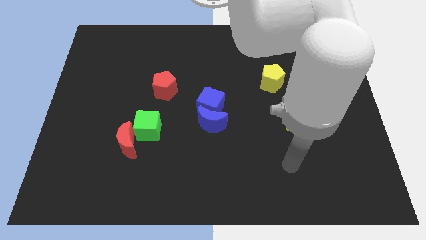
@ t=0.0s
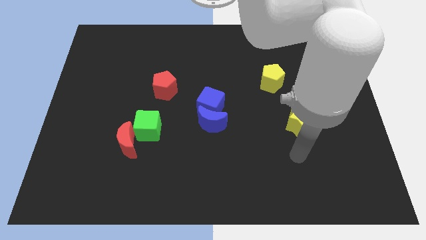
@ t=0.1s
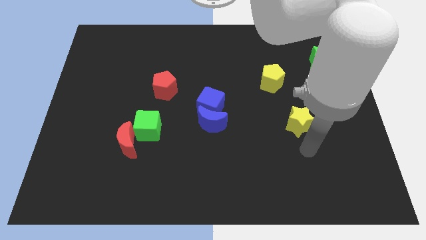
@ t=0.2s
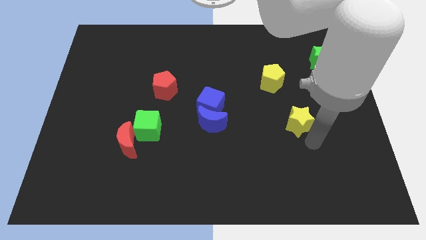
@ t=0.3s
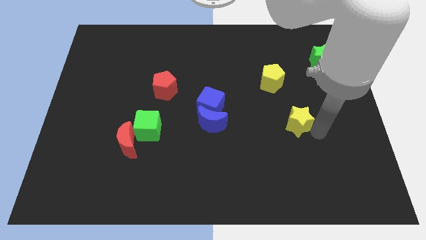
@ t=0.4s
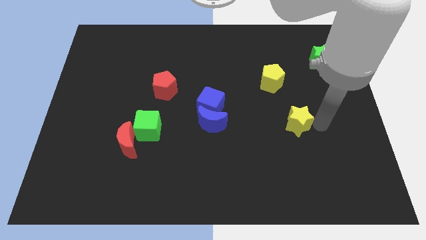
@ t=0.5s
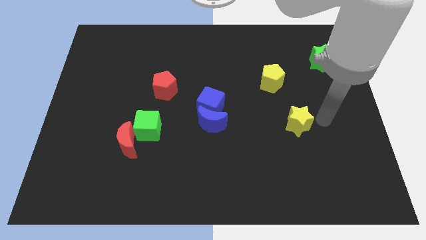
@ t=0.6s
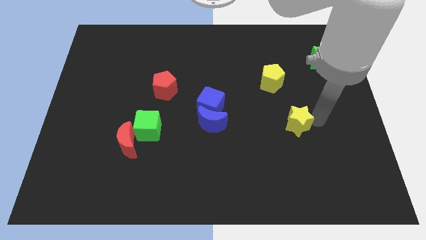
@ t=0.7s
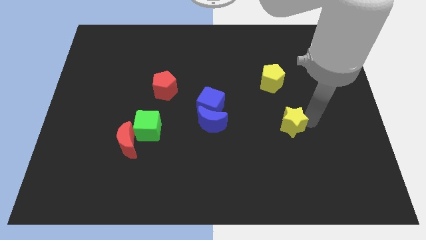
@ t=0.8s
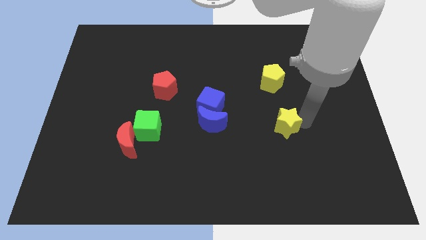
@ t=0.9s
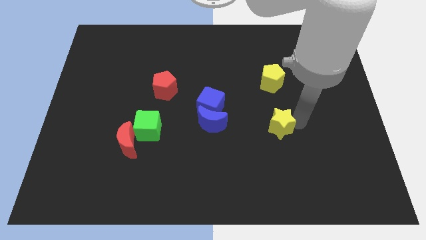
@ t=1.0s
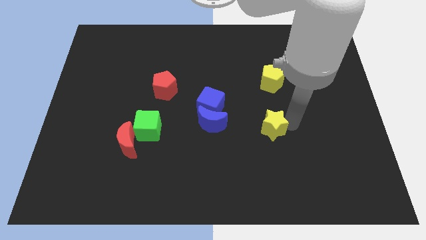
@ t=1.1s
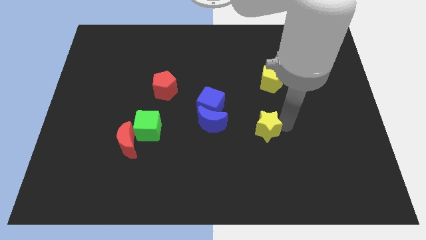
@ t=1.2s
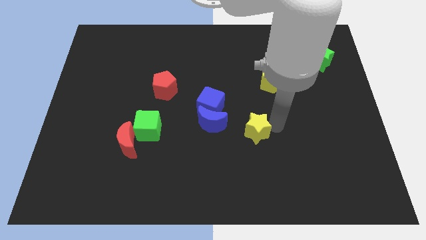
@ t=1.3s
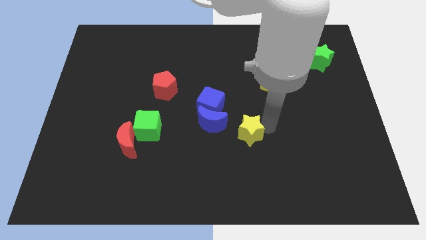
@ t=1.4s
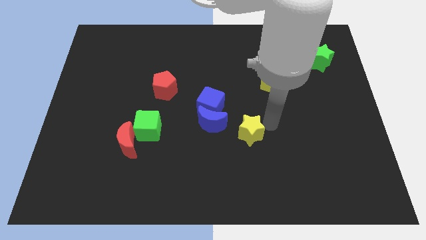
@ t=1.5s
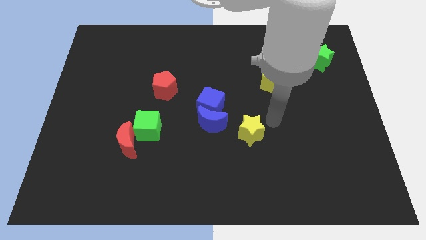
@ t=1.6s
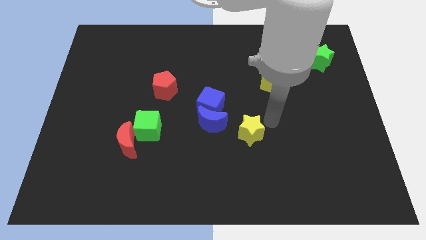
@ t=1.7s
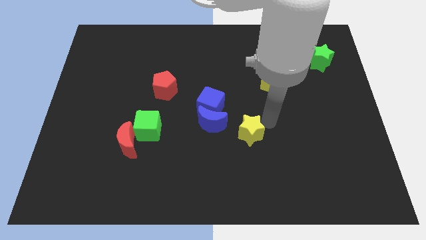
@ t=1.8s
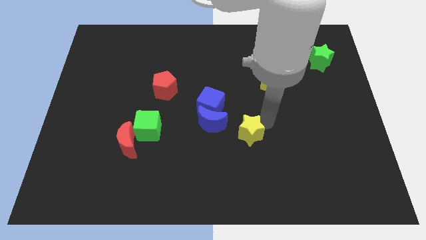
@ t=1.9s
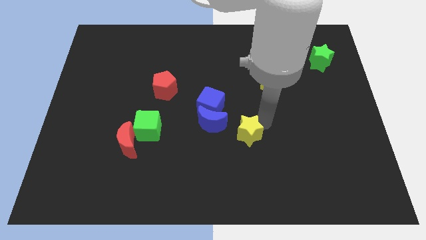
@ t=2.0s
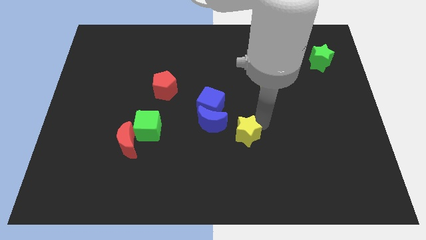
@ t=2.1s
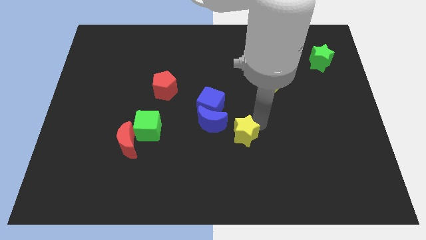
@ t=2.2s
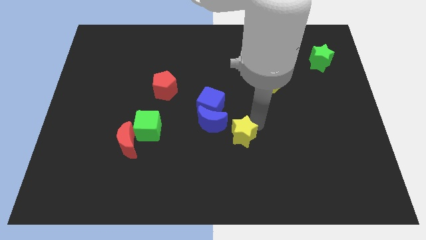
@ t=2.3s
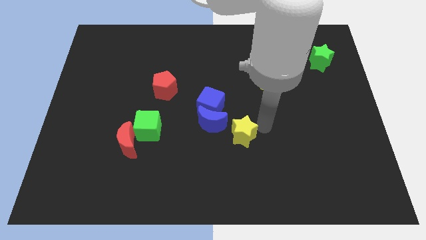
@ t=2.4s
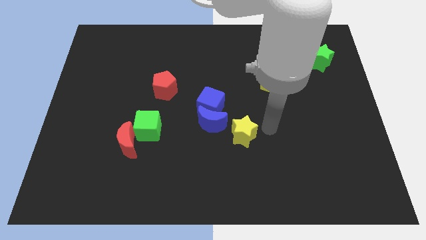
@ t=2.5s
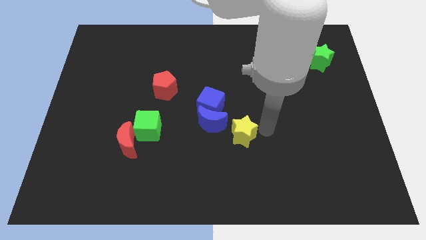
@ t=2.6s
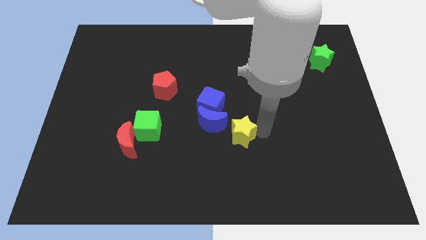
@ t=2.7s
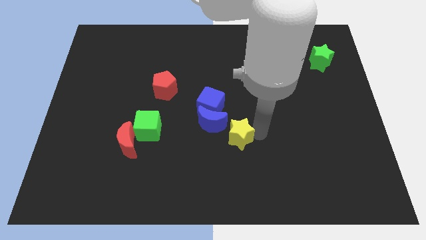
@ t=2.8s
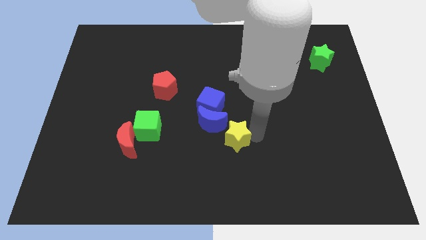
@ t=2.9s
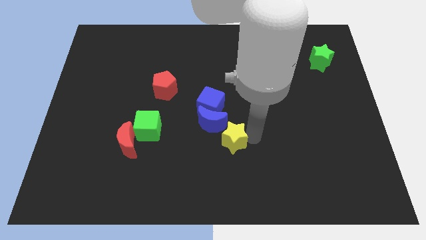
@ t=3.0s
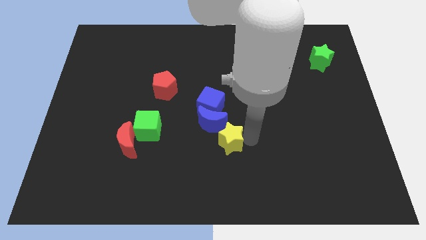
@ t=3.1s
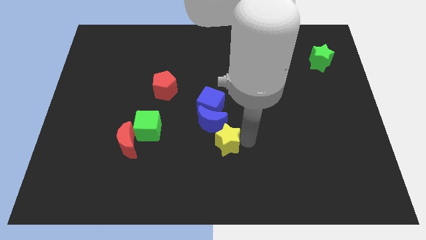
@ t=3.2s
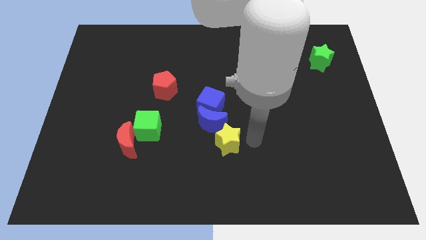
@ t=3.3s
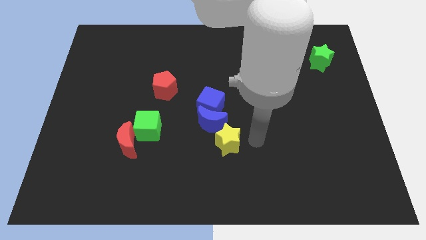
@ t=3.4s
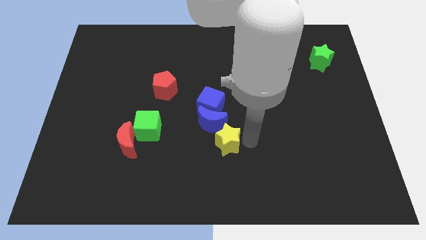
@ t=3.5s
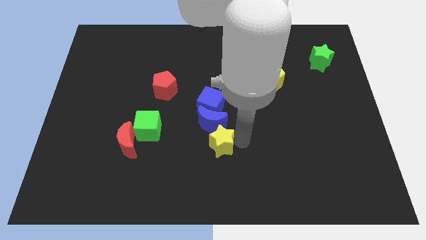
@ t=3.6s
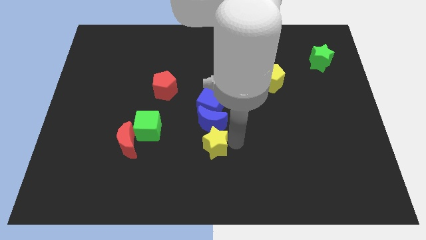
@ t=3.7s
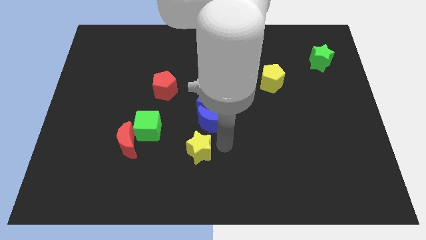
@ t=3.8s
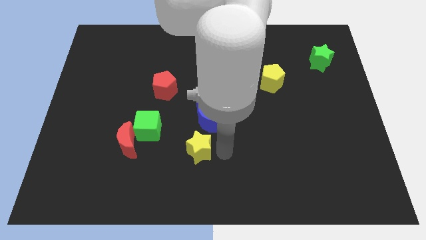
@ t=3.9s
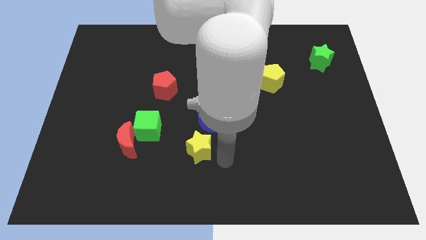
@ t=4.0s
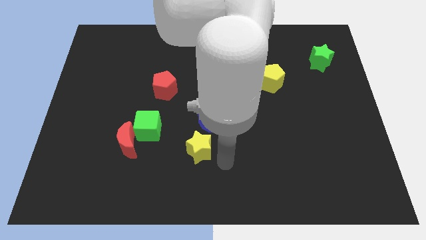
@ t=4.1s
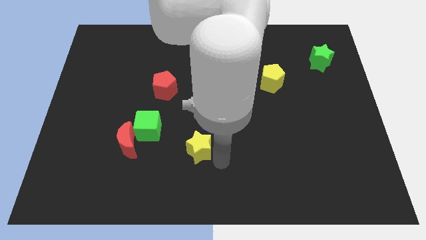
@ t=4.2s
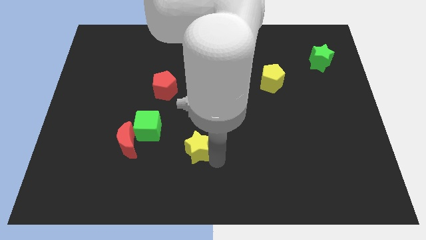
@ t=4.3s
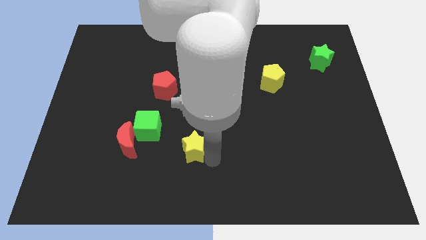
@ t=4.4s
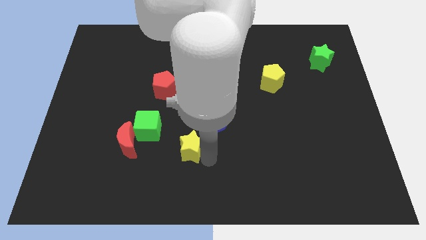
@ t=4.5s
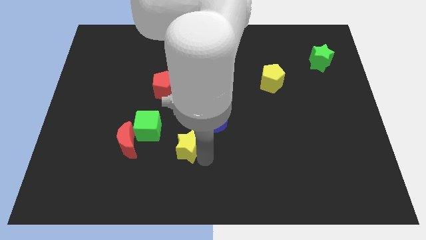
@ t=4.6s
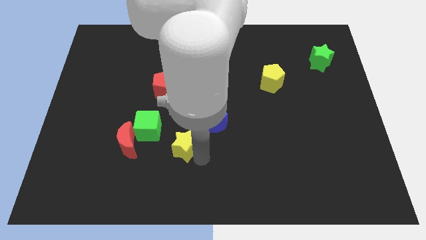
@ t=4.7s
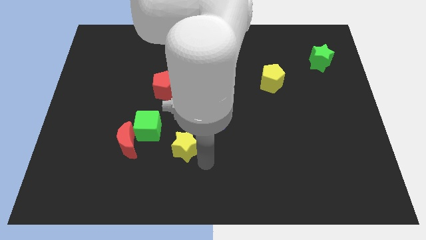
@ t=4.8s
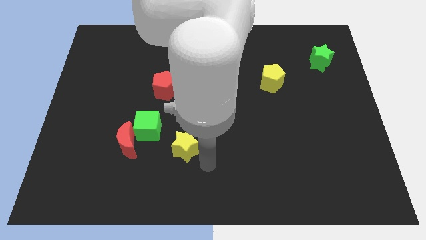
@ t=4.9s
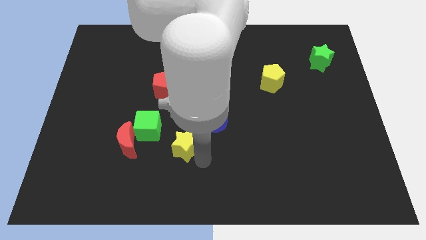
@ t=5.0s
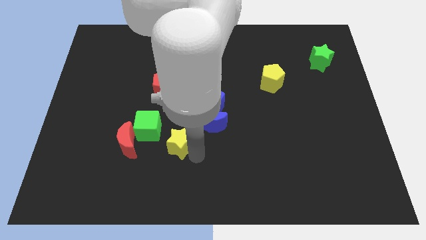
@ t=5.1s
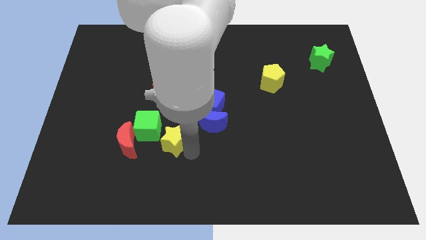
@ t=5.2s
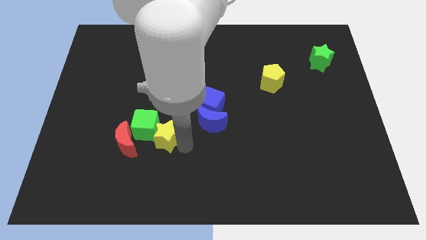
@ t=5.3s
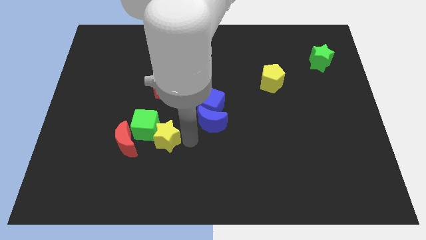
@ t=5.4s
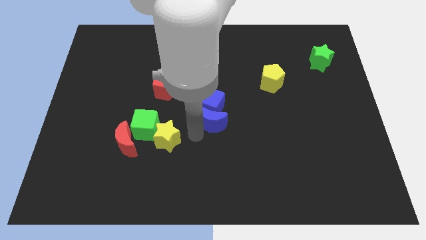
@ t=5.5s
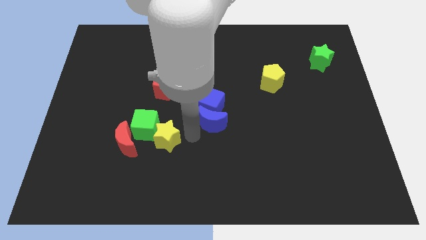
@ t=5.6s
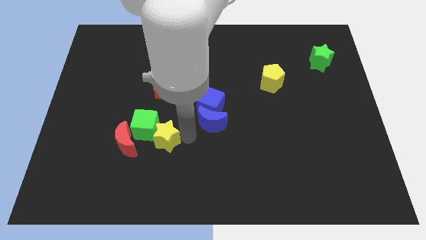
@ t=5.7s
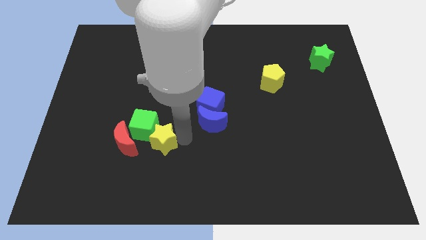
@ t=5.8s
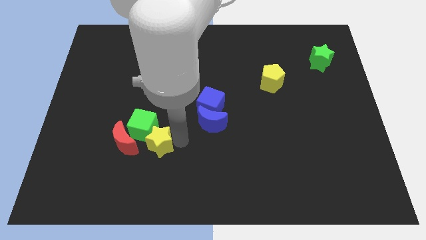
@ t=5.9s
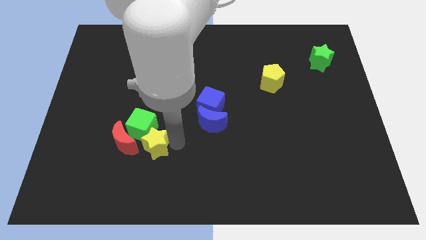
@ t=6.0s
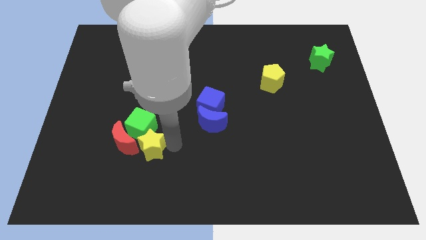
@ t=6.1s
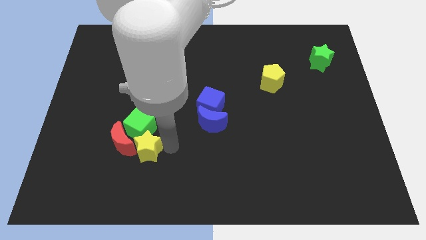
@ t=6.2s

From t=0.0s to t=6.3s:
put the yellow star close to the red moon

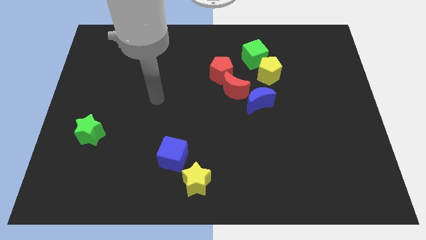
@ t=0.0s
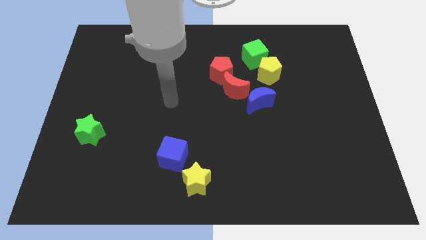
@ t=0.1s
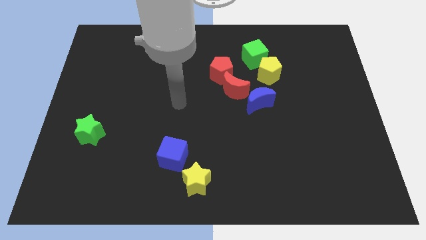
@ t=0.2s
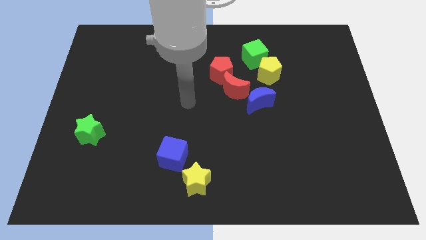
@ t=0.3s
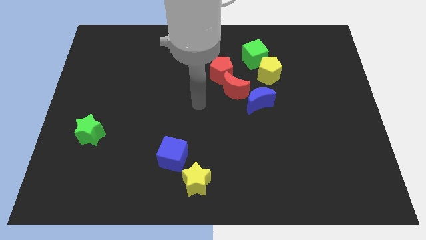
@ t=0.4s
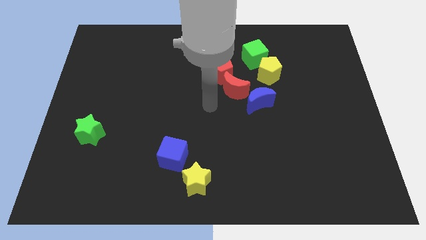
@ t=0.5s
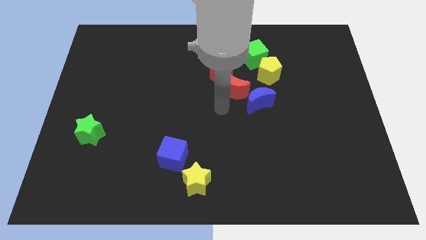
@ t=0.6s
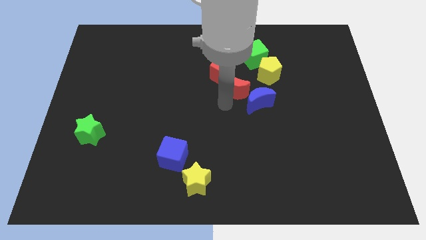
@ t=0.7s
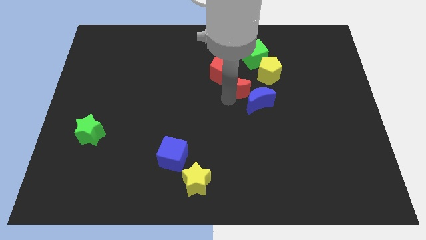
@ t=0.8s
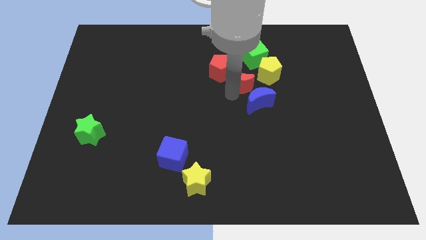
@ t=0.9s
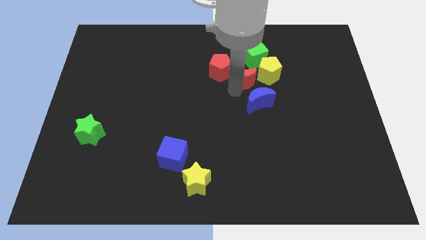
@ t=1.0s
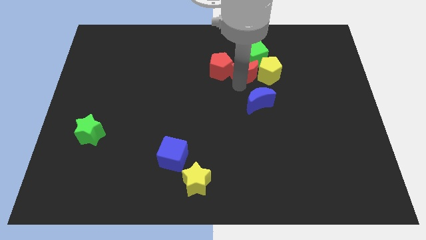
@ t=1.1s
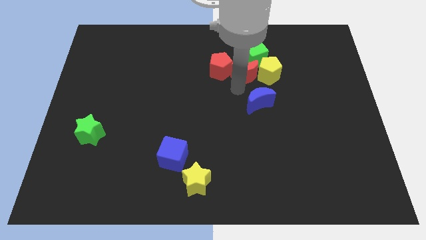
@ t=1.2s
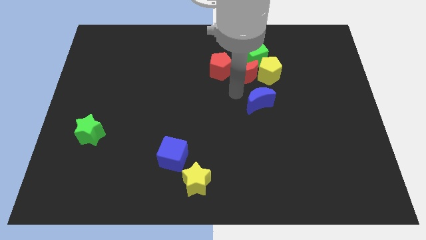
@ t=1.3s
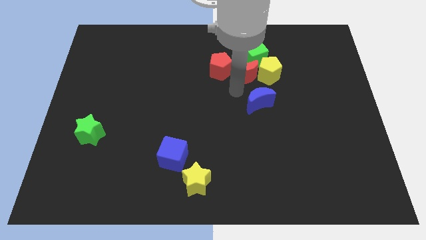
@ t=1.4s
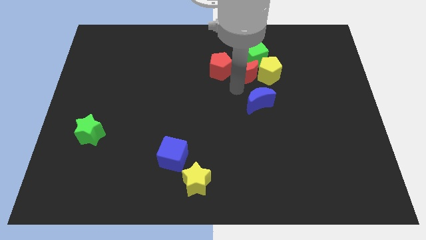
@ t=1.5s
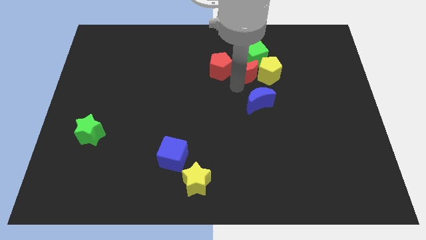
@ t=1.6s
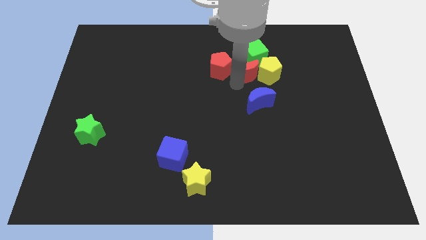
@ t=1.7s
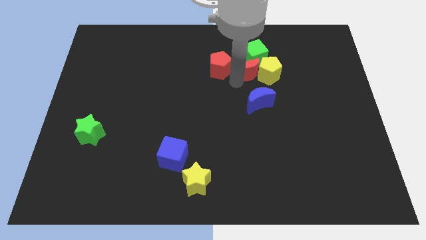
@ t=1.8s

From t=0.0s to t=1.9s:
put the red moon close to the green cube
